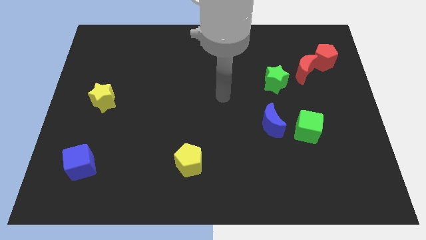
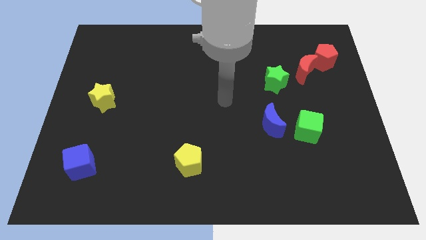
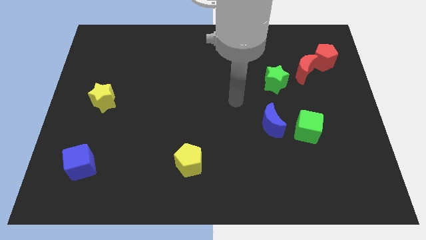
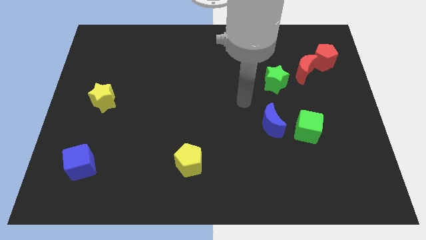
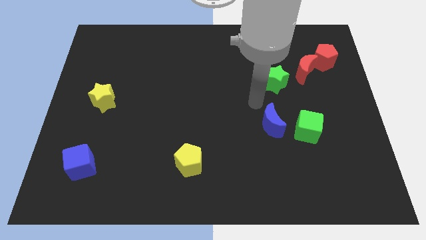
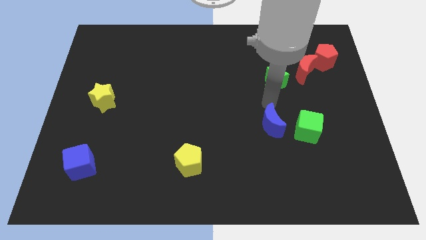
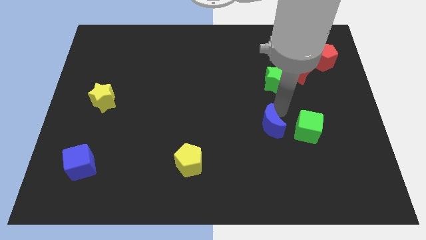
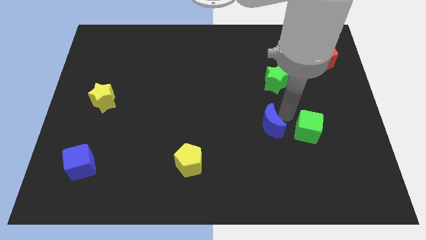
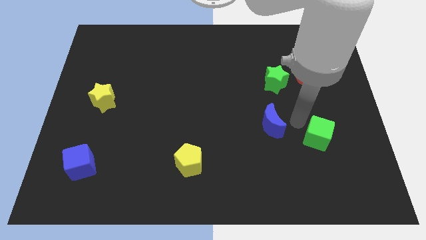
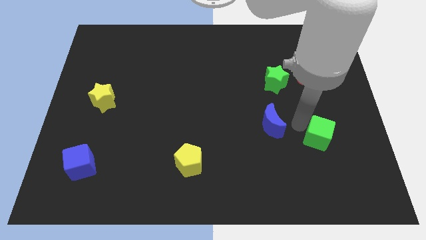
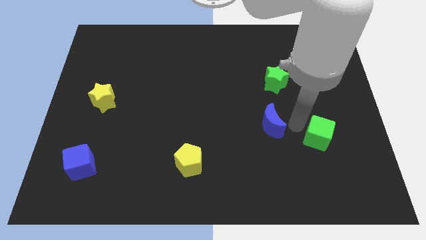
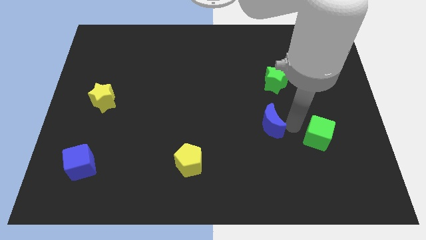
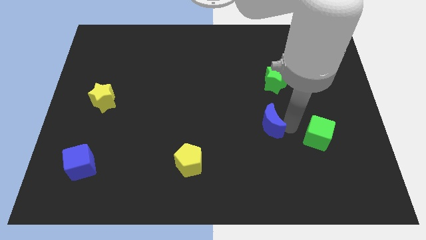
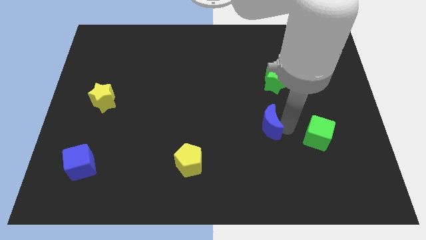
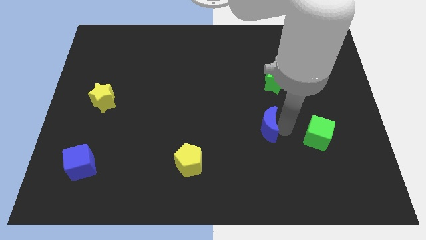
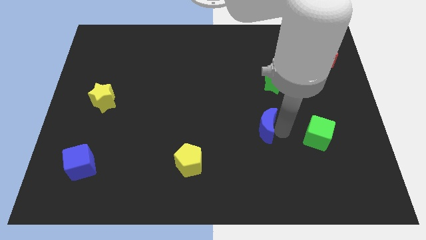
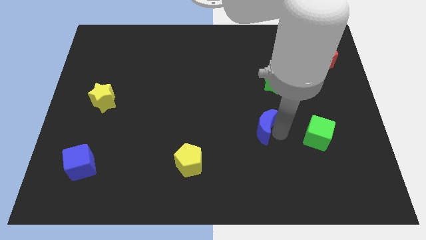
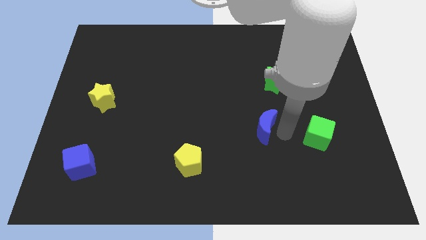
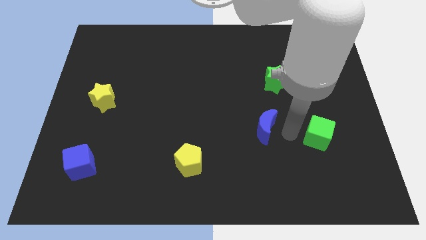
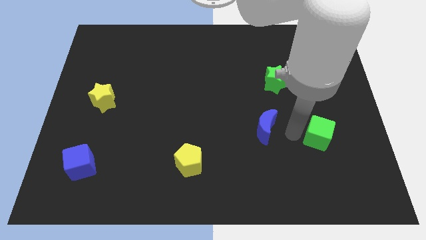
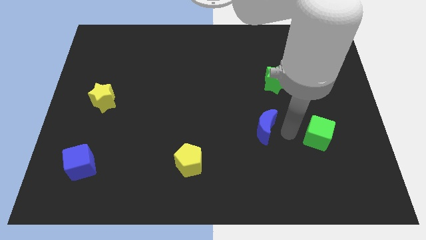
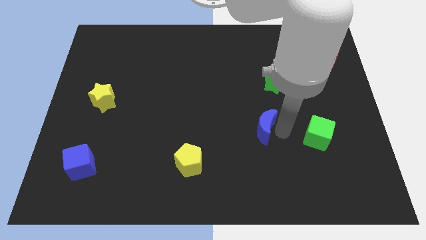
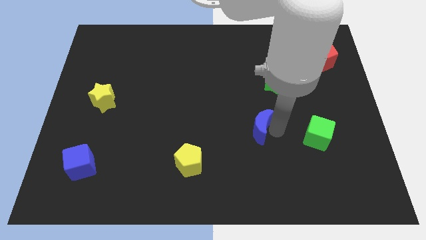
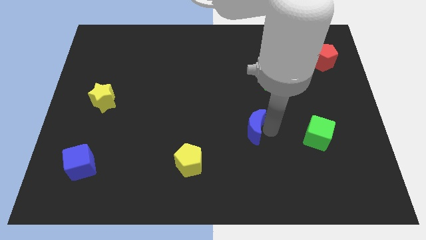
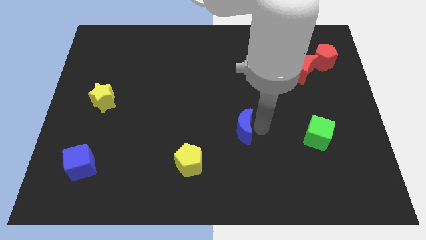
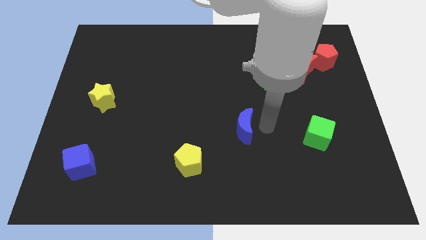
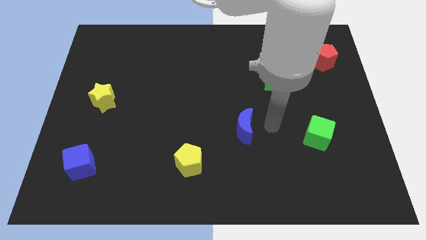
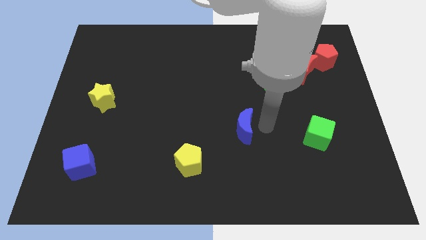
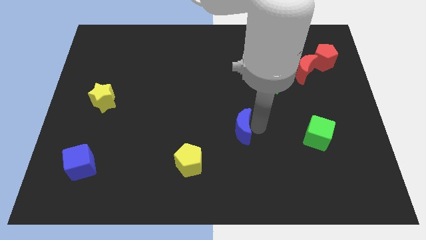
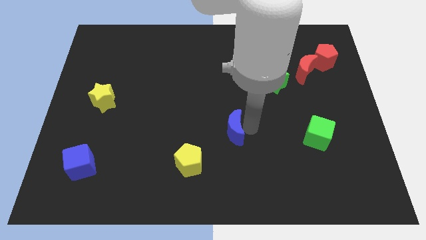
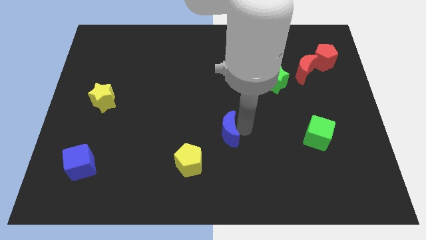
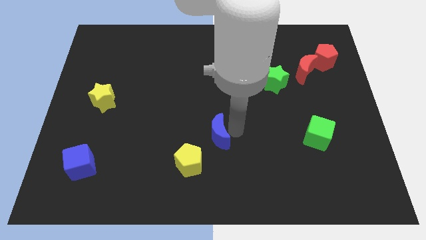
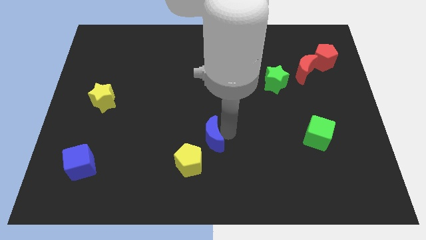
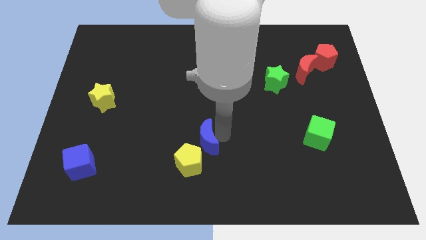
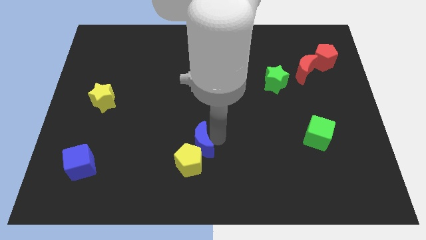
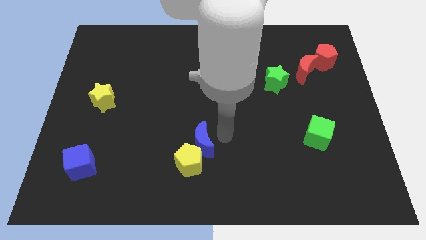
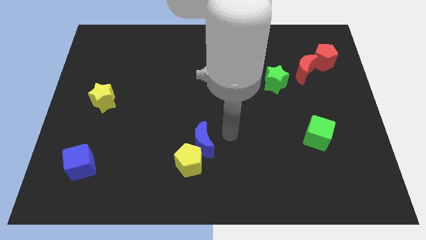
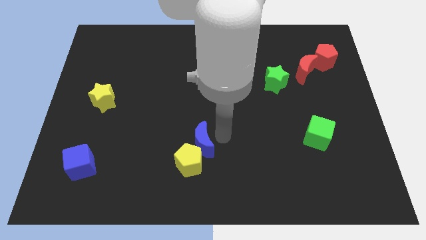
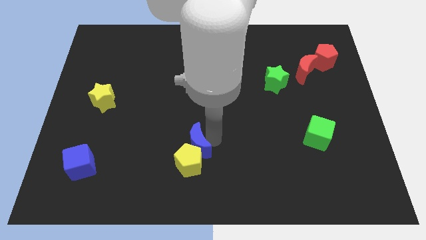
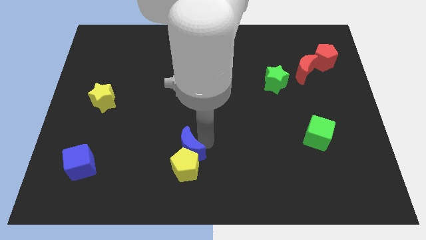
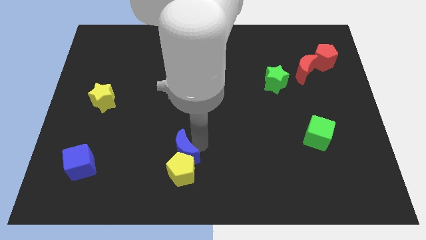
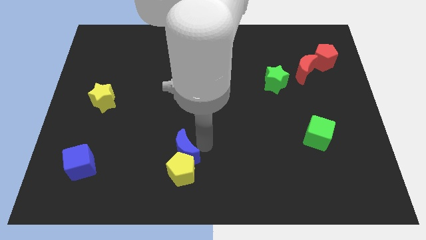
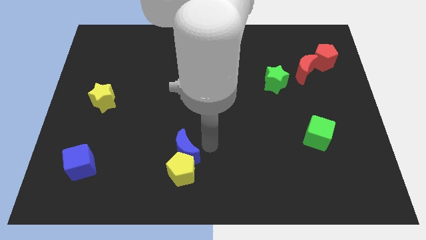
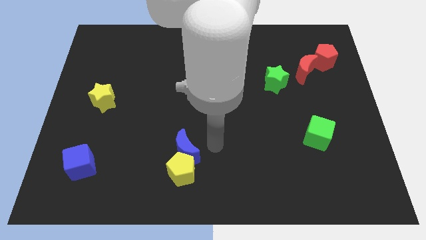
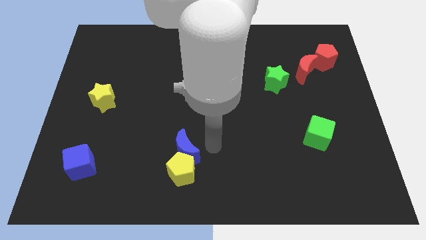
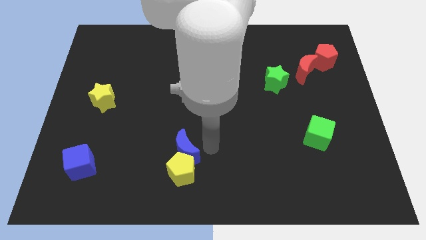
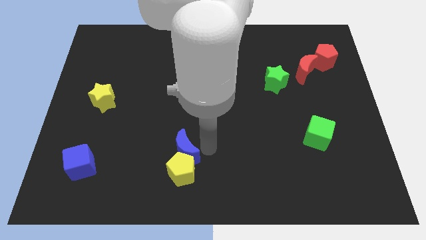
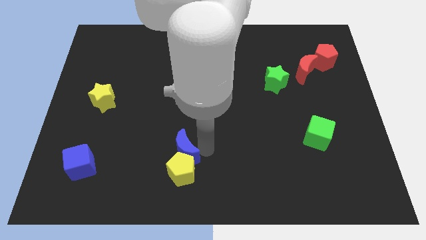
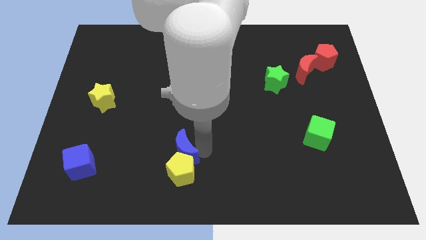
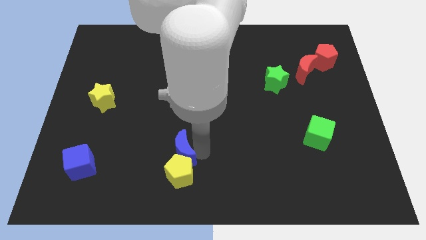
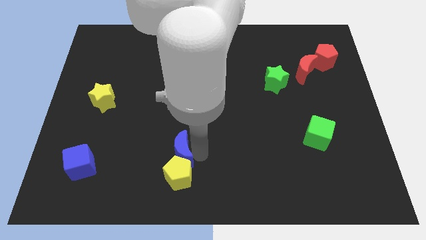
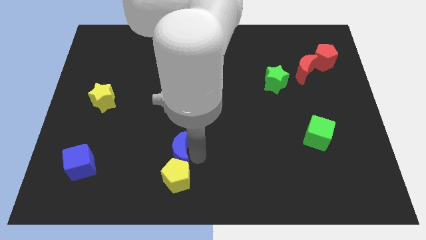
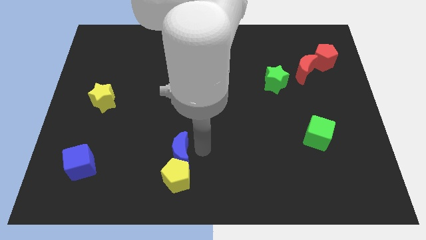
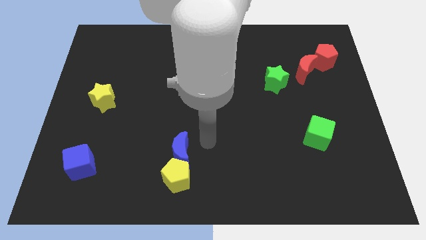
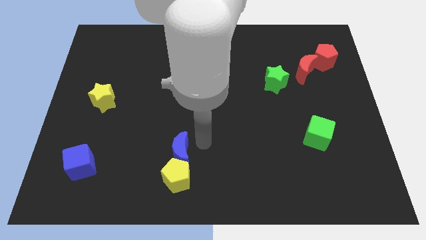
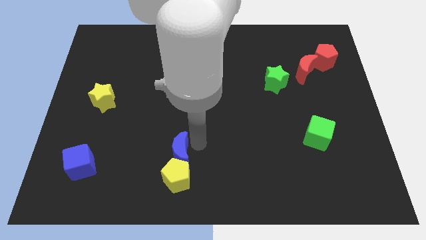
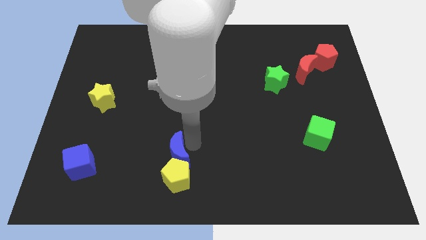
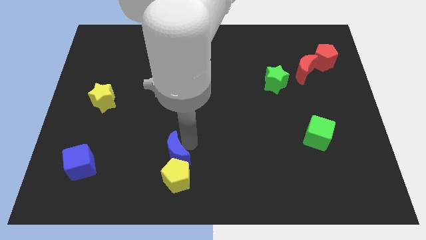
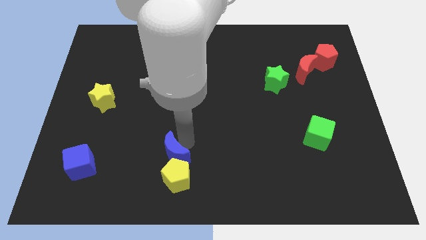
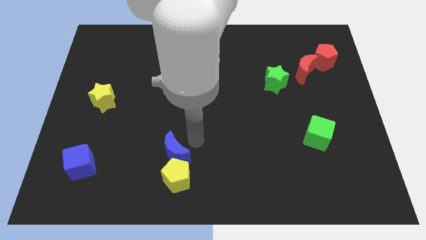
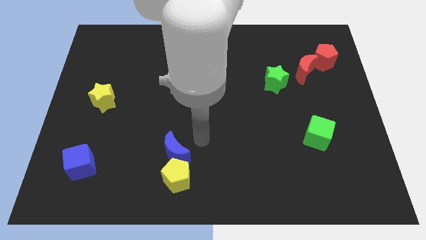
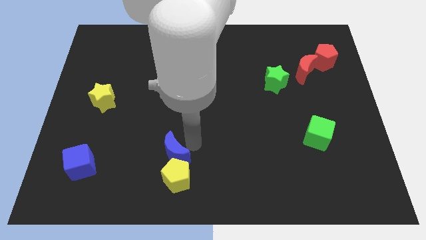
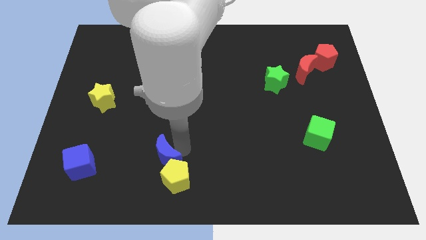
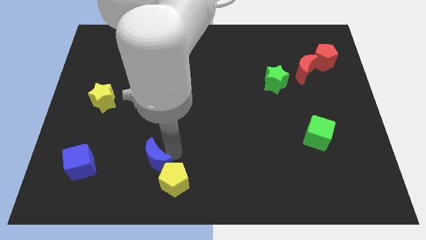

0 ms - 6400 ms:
move the blue moon to the left side of the yellow pentagon
